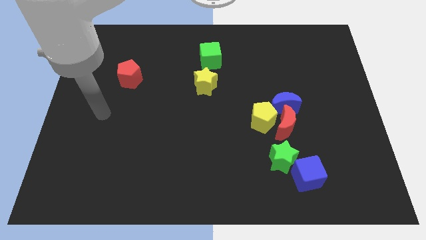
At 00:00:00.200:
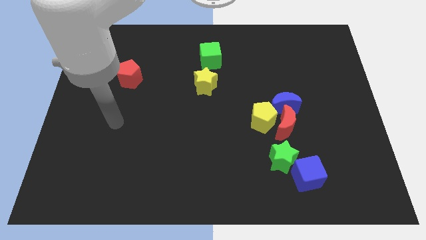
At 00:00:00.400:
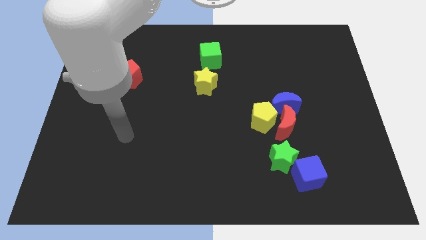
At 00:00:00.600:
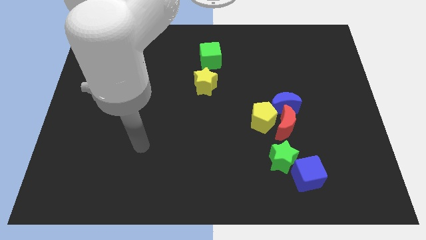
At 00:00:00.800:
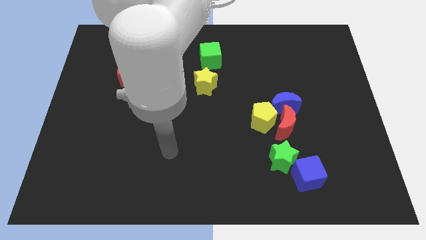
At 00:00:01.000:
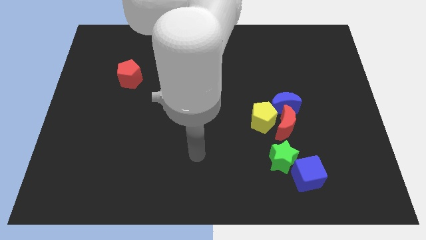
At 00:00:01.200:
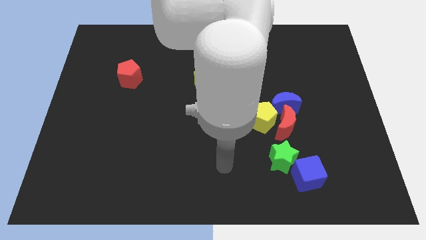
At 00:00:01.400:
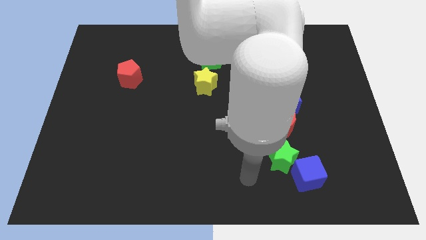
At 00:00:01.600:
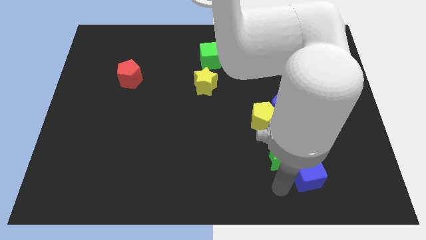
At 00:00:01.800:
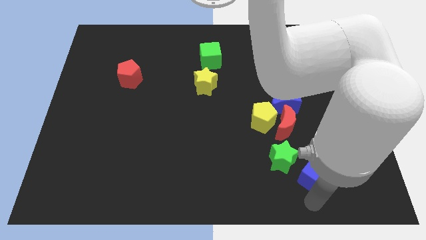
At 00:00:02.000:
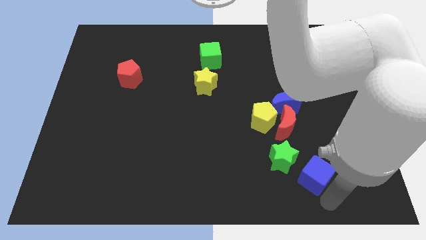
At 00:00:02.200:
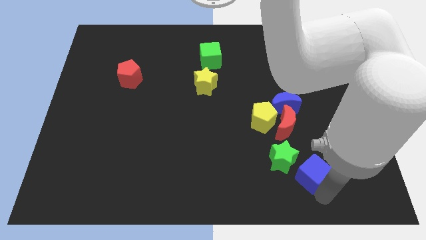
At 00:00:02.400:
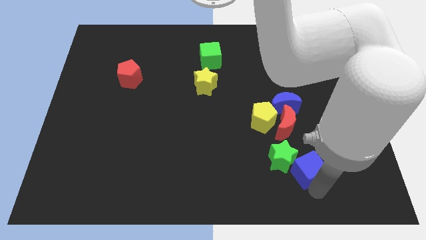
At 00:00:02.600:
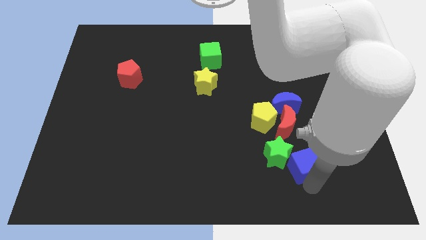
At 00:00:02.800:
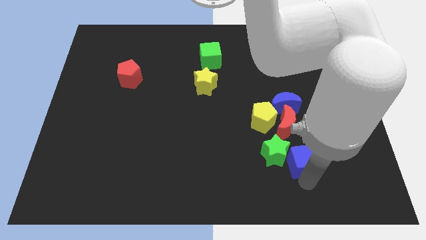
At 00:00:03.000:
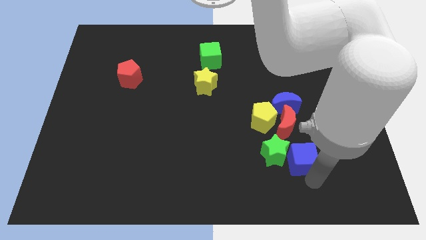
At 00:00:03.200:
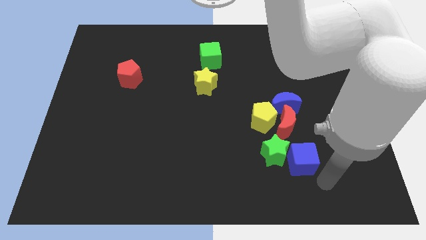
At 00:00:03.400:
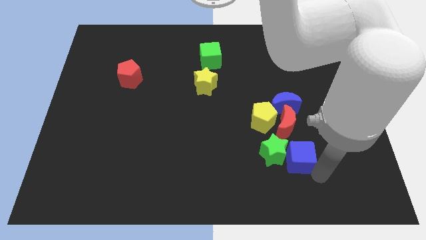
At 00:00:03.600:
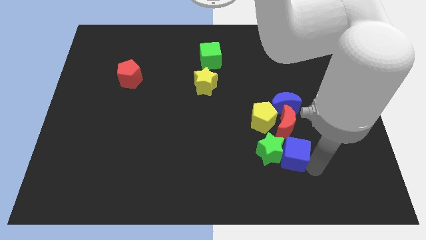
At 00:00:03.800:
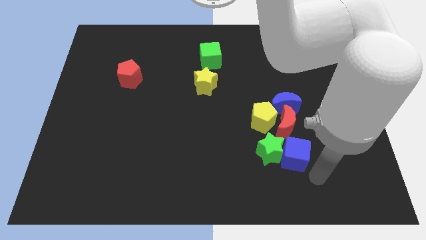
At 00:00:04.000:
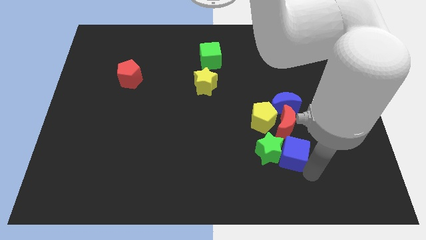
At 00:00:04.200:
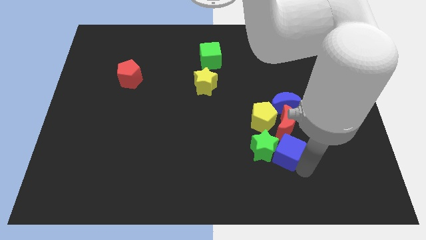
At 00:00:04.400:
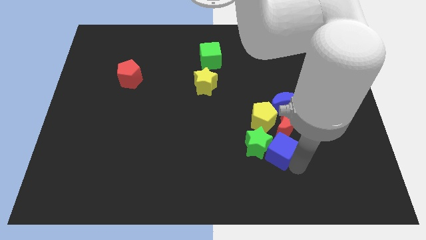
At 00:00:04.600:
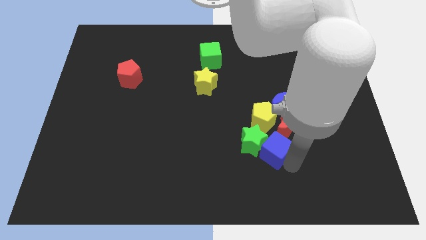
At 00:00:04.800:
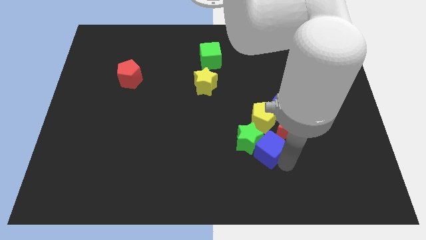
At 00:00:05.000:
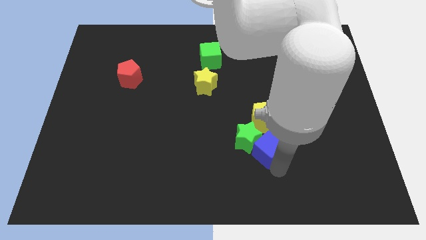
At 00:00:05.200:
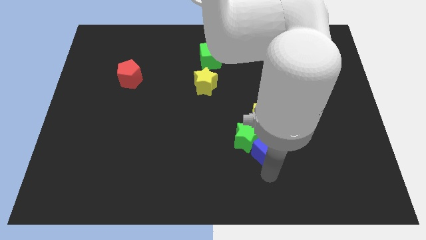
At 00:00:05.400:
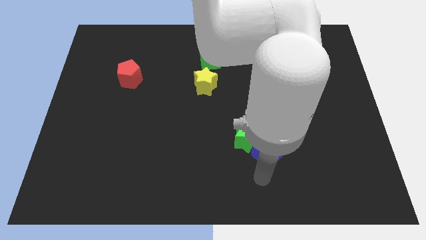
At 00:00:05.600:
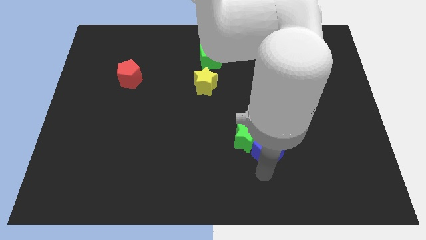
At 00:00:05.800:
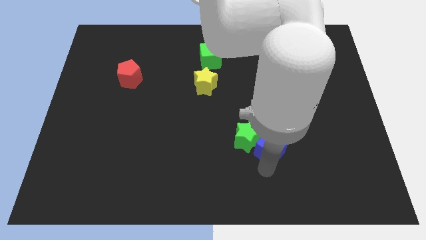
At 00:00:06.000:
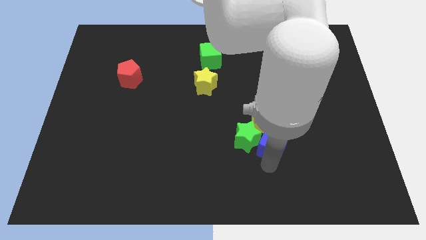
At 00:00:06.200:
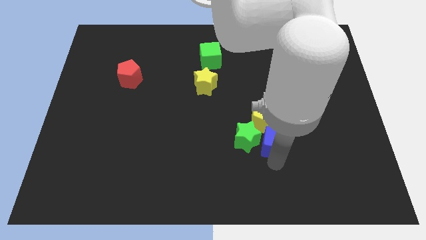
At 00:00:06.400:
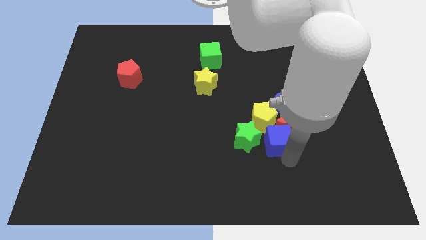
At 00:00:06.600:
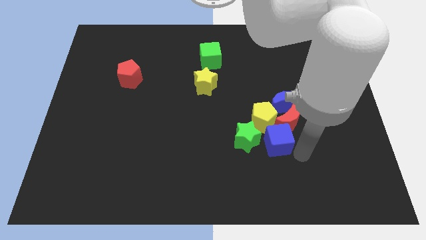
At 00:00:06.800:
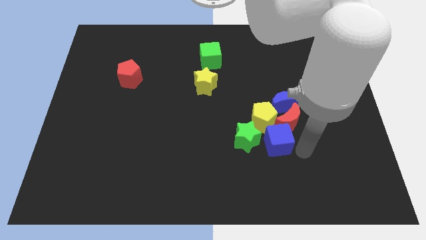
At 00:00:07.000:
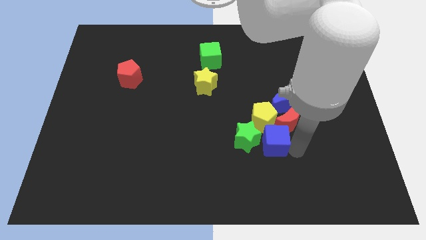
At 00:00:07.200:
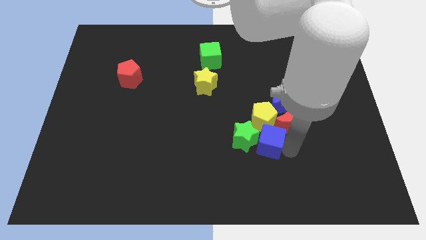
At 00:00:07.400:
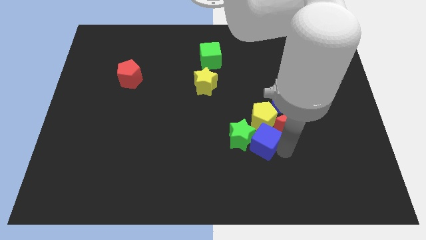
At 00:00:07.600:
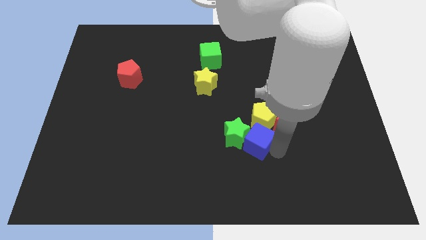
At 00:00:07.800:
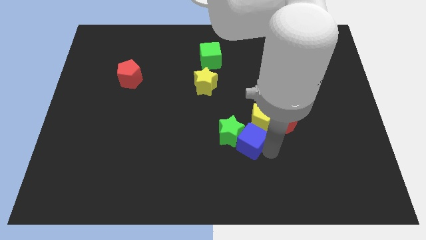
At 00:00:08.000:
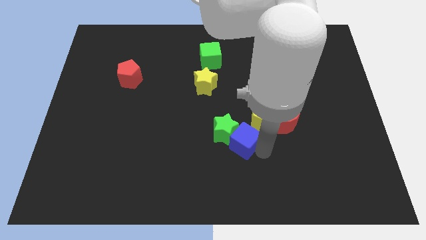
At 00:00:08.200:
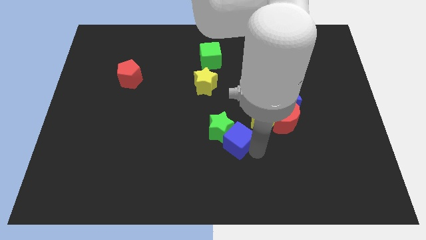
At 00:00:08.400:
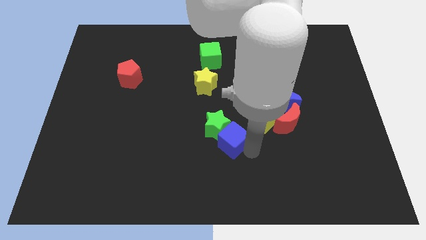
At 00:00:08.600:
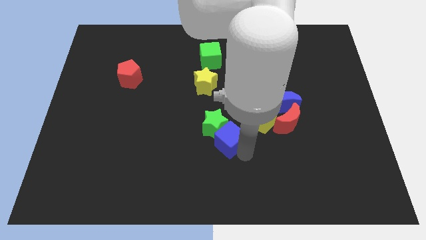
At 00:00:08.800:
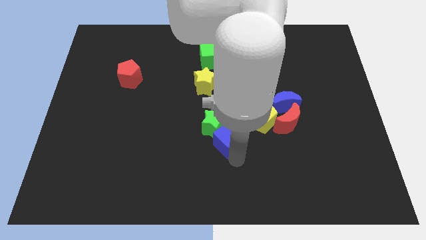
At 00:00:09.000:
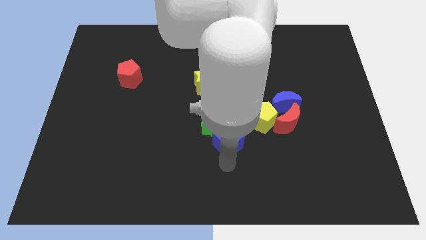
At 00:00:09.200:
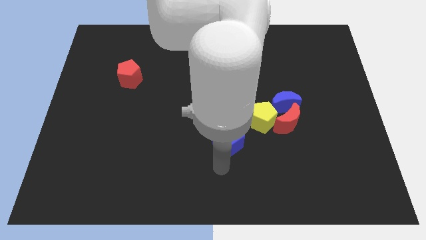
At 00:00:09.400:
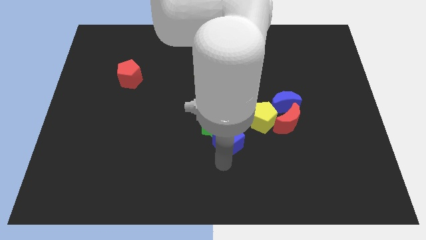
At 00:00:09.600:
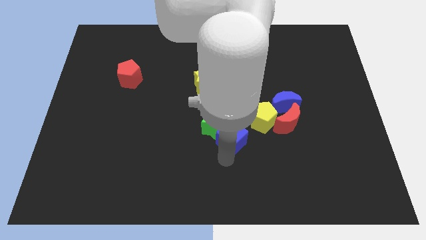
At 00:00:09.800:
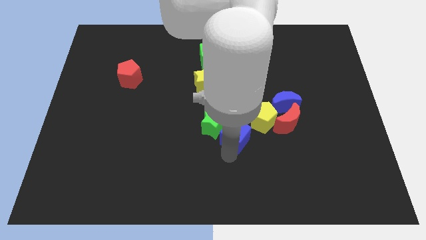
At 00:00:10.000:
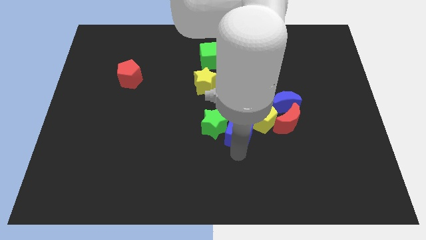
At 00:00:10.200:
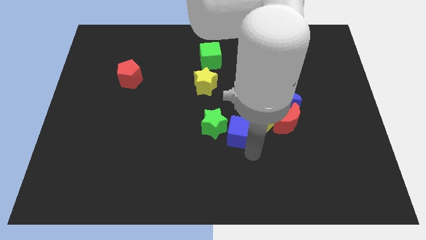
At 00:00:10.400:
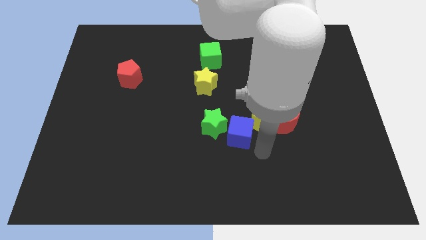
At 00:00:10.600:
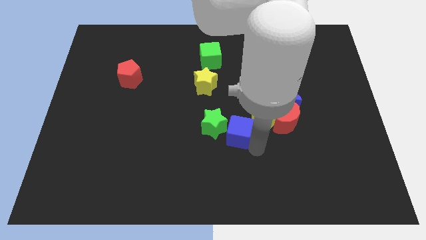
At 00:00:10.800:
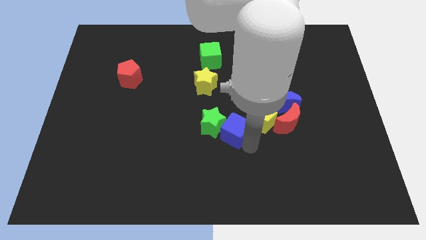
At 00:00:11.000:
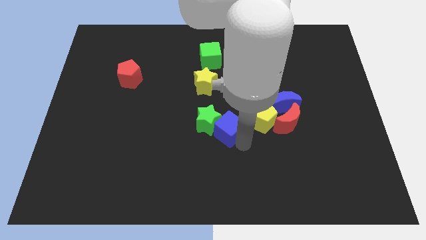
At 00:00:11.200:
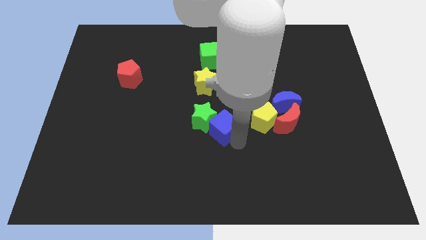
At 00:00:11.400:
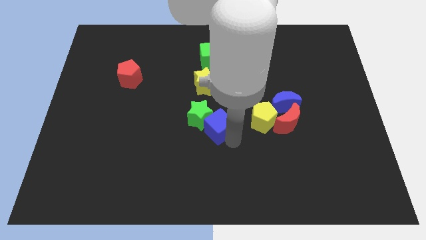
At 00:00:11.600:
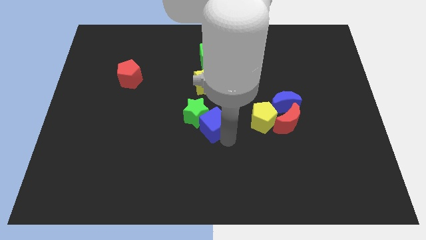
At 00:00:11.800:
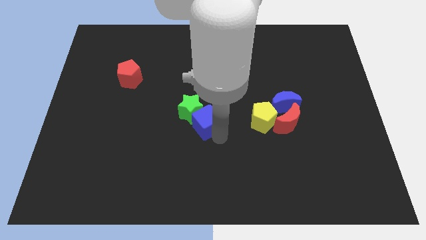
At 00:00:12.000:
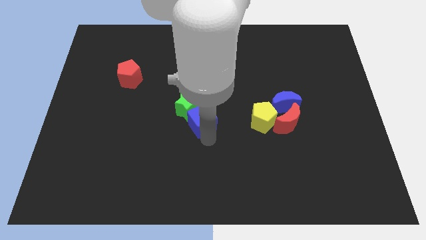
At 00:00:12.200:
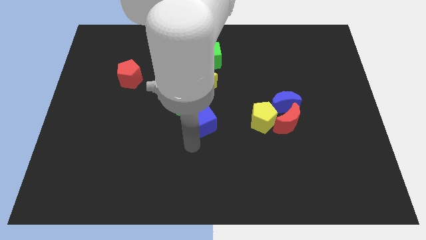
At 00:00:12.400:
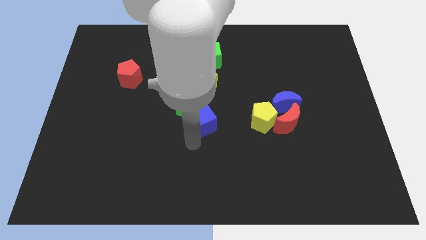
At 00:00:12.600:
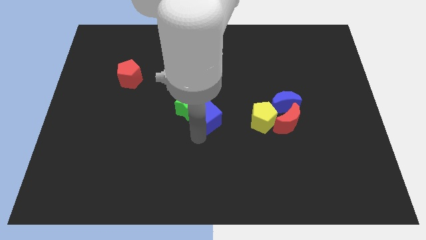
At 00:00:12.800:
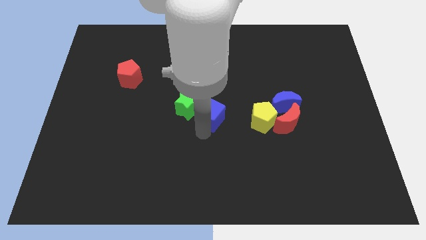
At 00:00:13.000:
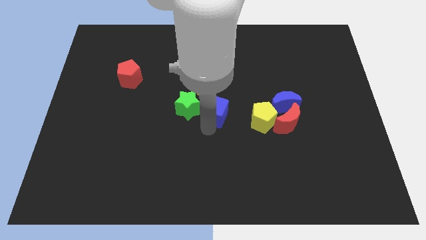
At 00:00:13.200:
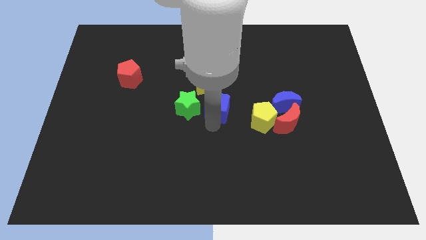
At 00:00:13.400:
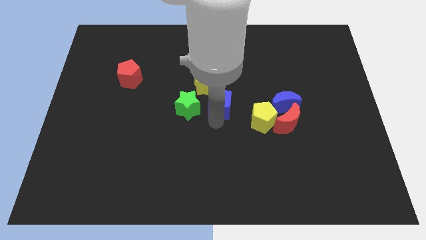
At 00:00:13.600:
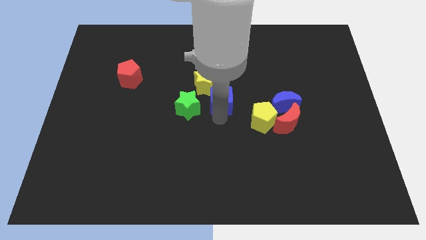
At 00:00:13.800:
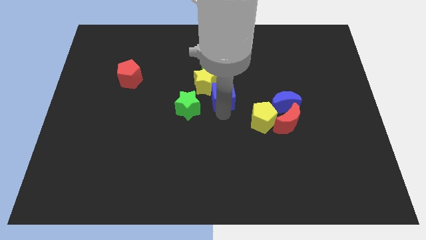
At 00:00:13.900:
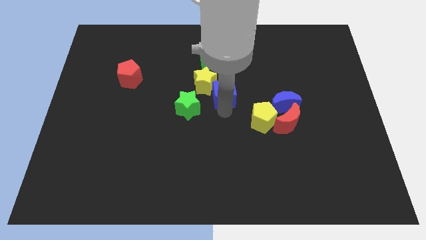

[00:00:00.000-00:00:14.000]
slide the blue cube to the yellow star

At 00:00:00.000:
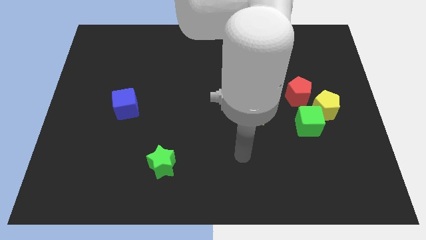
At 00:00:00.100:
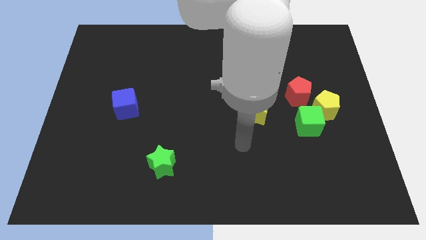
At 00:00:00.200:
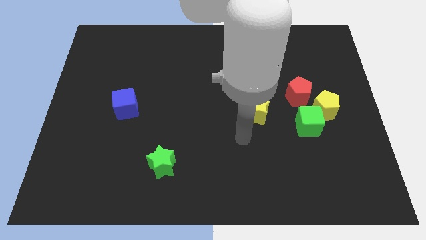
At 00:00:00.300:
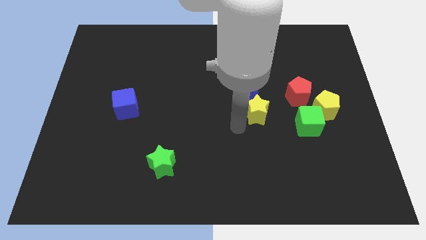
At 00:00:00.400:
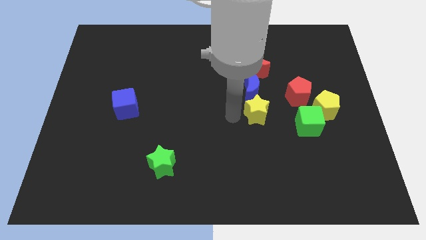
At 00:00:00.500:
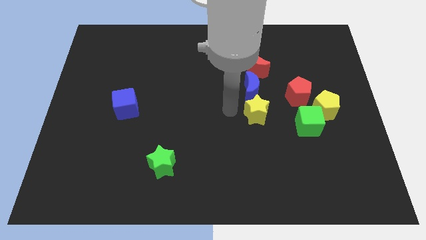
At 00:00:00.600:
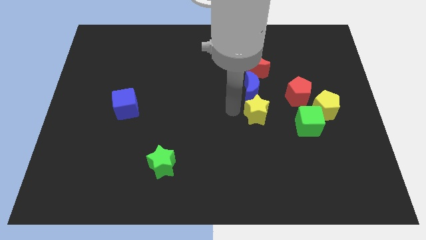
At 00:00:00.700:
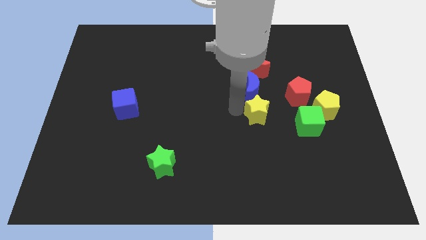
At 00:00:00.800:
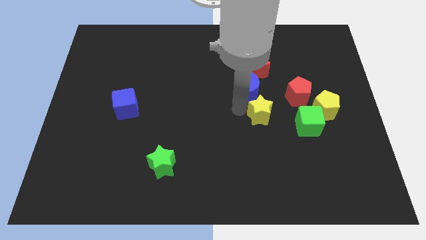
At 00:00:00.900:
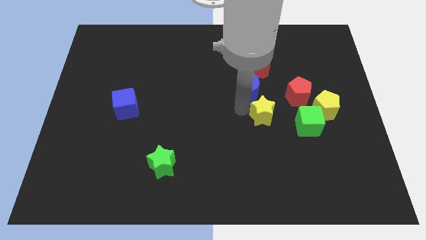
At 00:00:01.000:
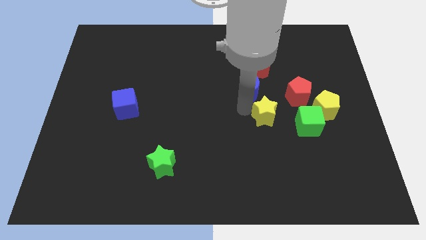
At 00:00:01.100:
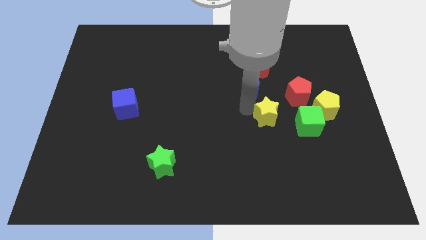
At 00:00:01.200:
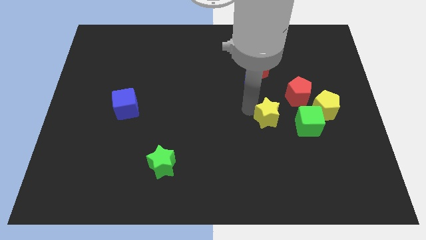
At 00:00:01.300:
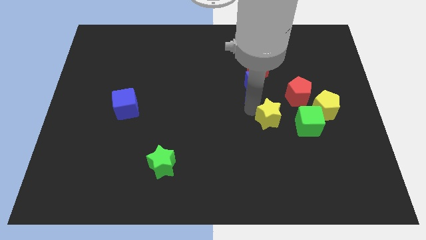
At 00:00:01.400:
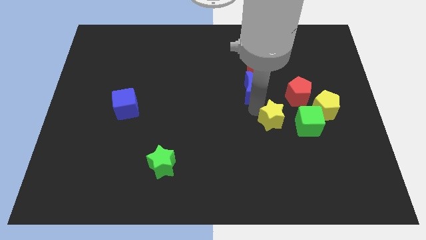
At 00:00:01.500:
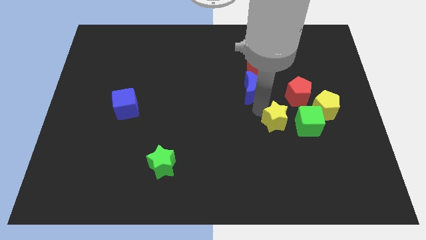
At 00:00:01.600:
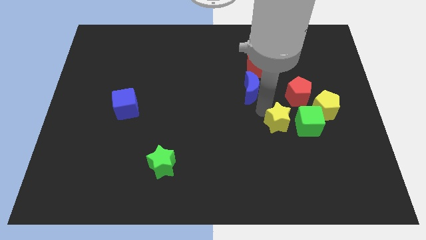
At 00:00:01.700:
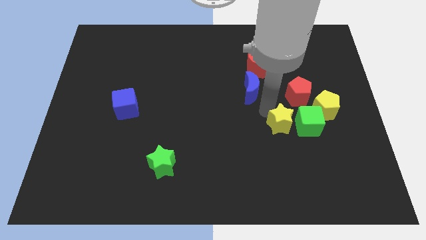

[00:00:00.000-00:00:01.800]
put the yellow star next to the green cube
